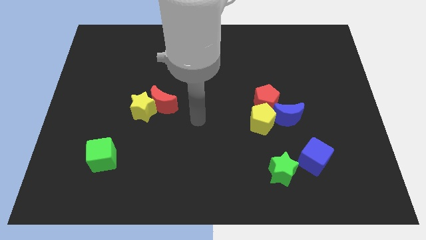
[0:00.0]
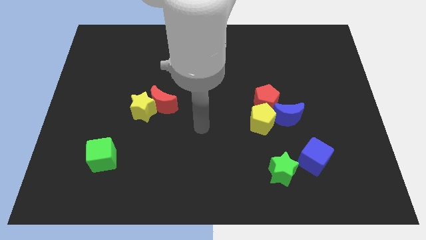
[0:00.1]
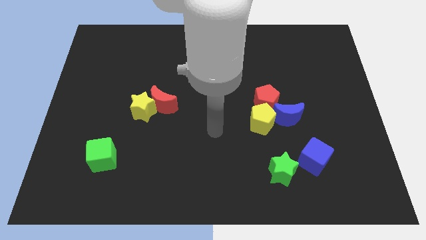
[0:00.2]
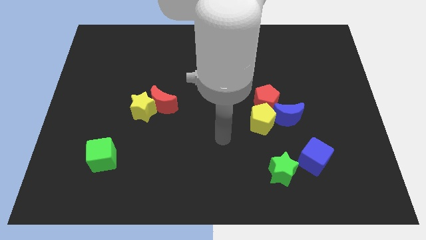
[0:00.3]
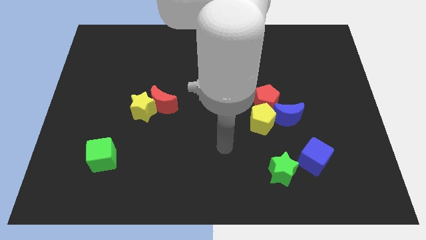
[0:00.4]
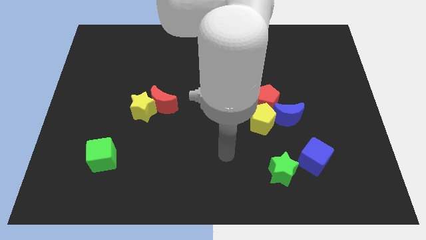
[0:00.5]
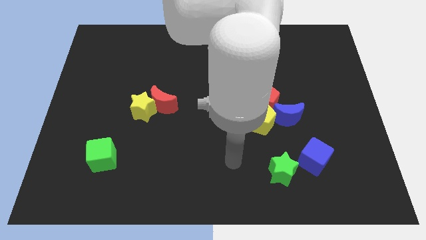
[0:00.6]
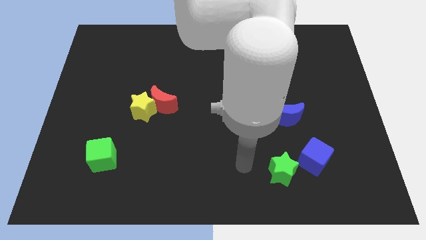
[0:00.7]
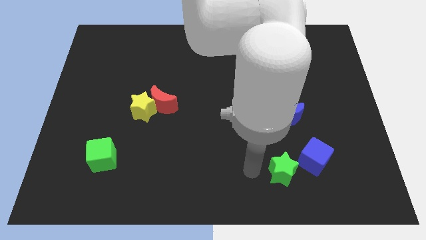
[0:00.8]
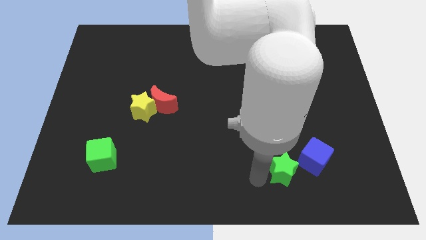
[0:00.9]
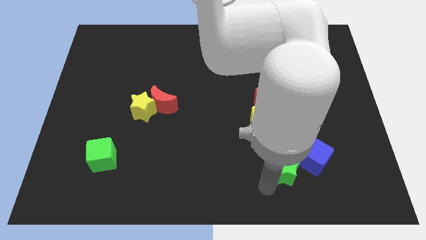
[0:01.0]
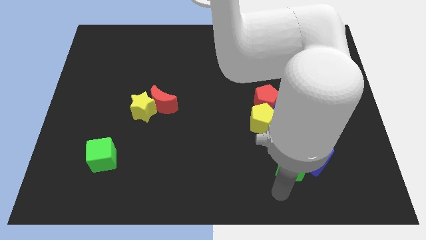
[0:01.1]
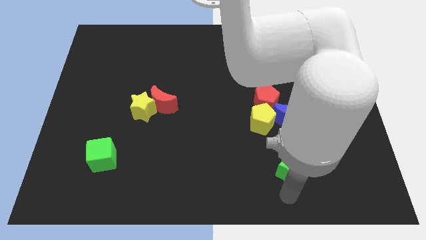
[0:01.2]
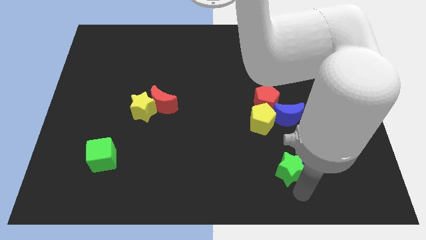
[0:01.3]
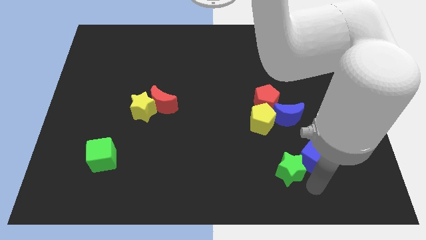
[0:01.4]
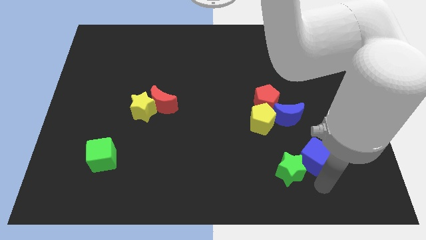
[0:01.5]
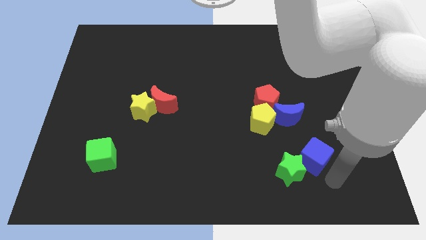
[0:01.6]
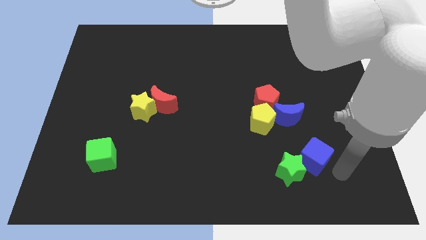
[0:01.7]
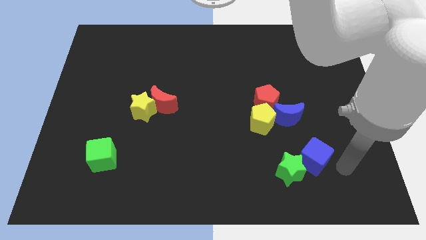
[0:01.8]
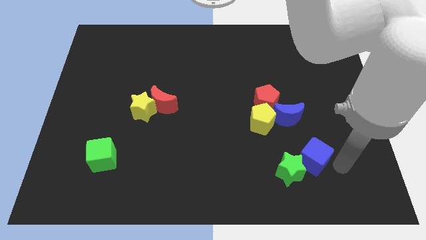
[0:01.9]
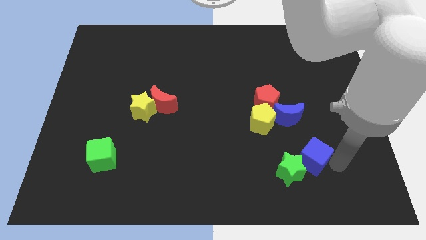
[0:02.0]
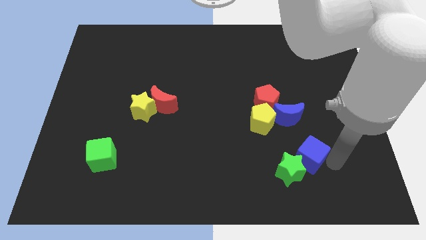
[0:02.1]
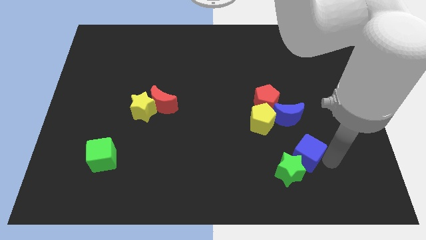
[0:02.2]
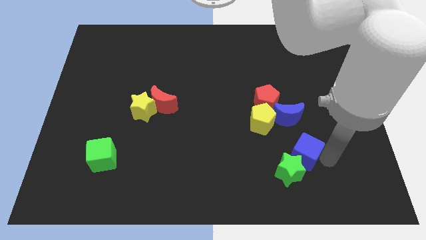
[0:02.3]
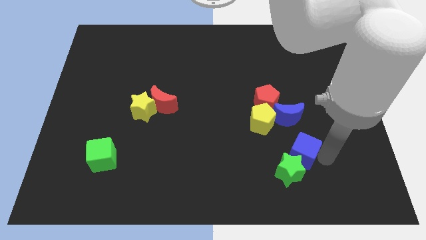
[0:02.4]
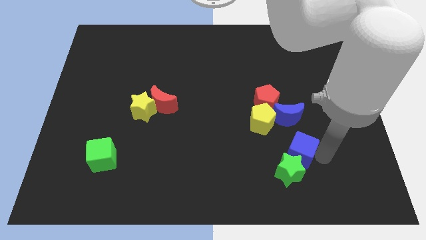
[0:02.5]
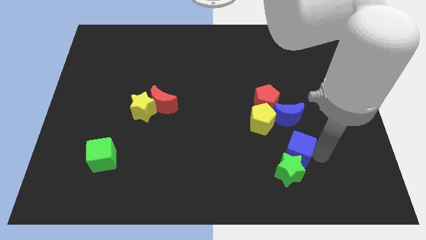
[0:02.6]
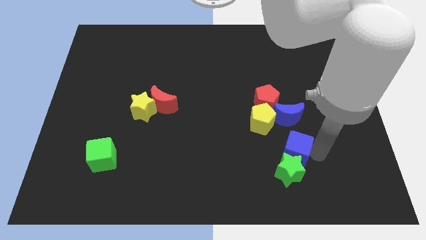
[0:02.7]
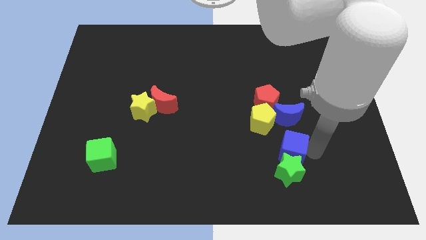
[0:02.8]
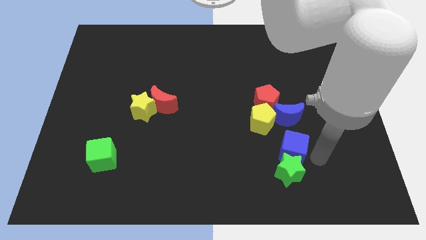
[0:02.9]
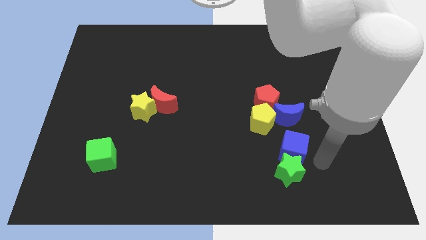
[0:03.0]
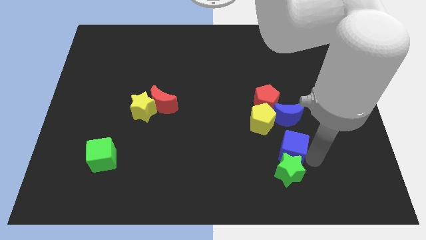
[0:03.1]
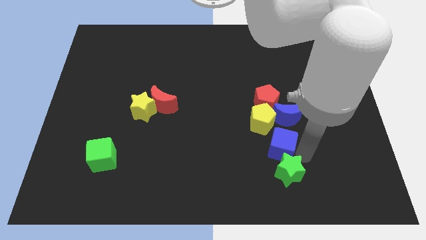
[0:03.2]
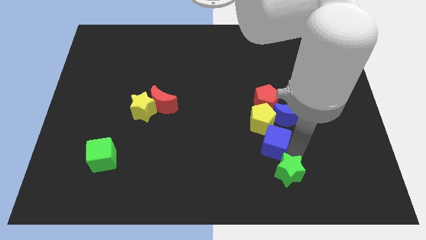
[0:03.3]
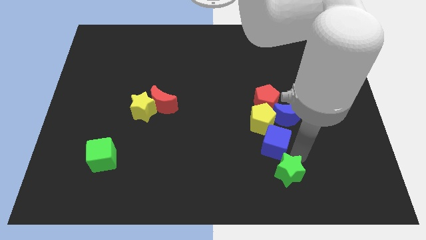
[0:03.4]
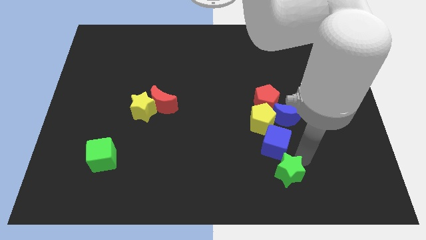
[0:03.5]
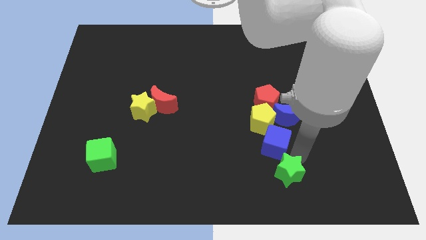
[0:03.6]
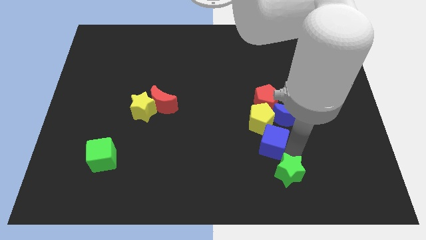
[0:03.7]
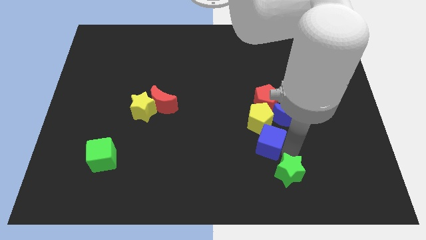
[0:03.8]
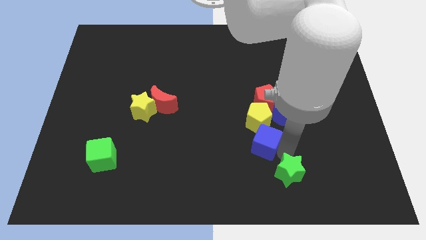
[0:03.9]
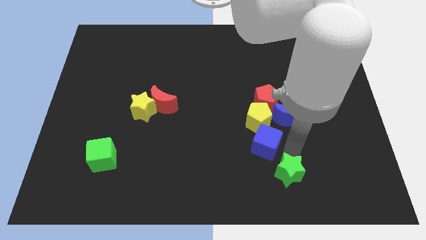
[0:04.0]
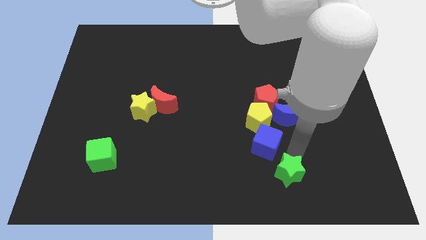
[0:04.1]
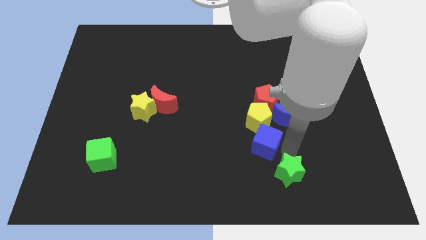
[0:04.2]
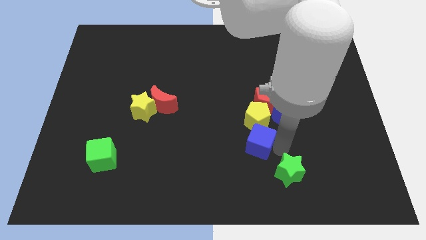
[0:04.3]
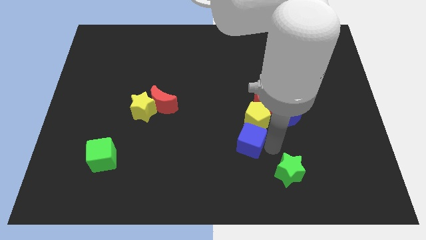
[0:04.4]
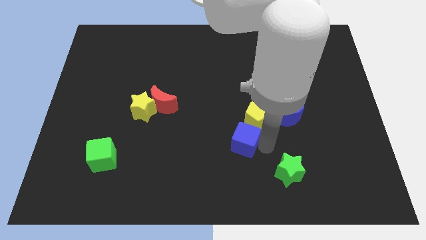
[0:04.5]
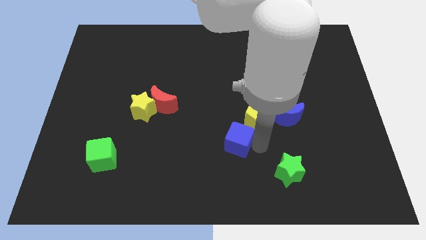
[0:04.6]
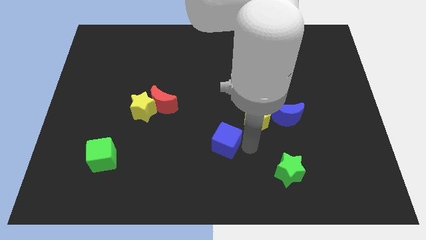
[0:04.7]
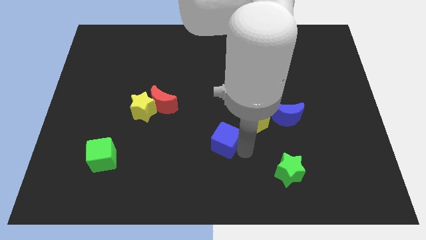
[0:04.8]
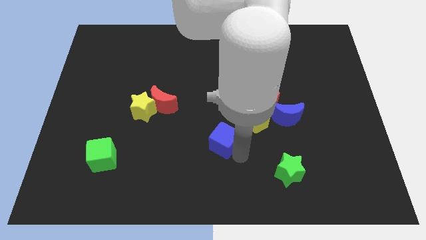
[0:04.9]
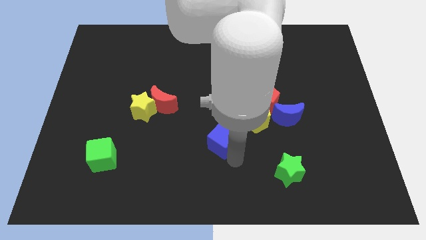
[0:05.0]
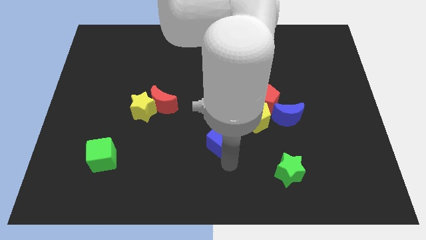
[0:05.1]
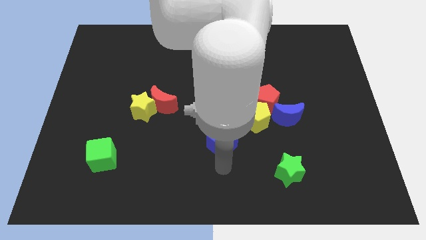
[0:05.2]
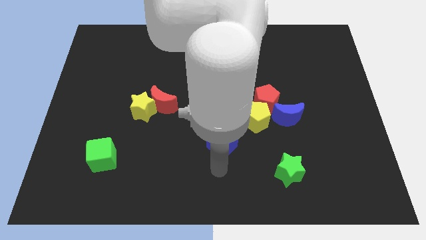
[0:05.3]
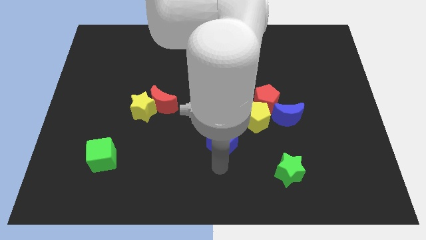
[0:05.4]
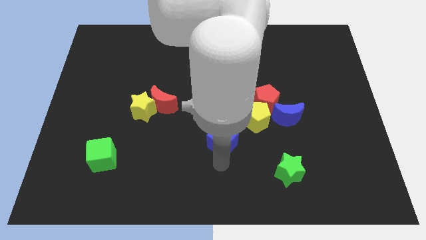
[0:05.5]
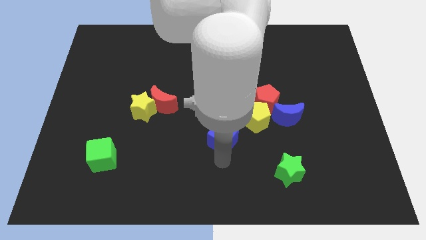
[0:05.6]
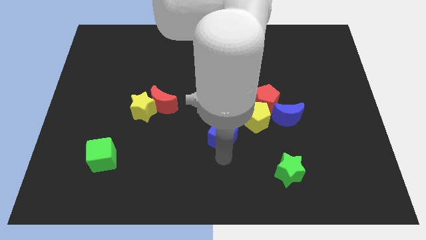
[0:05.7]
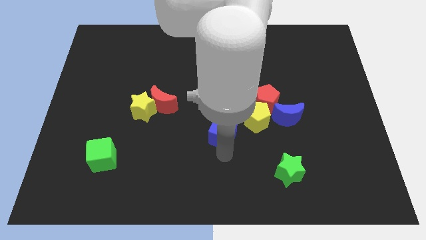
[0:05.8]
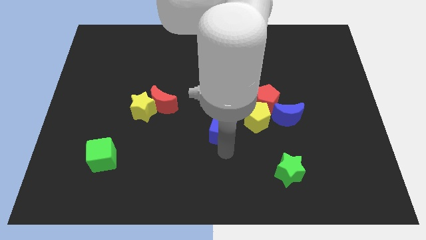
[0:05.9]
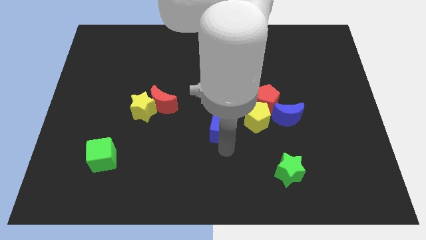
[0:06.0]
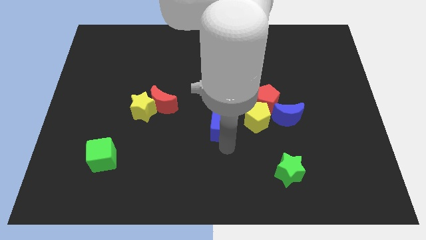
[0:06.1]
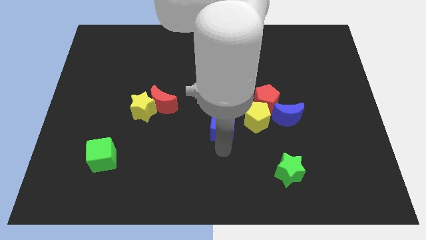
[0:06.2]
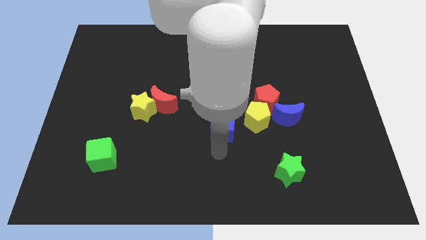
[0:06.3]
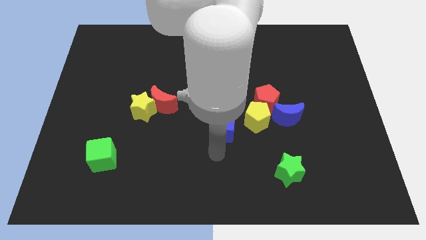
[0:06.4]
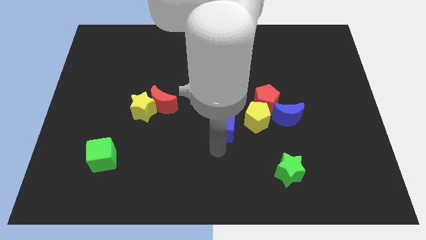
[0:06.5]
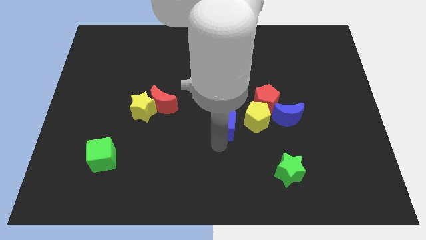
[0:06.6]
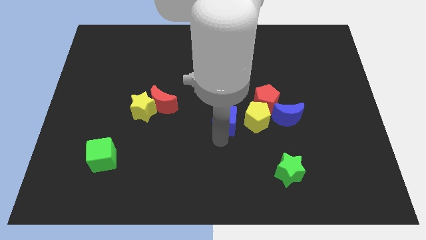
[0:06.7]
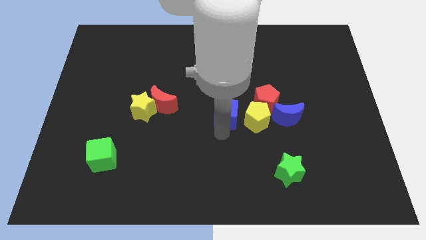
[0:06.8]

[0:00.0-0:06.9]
push the blue cube diagonally up and to the left of the yellow pentagon

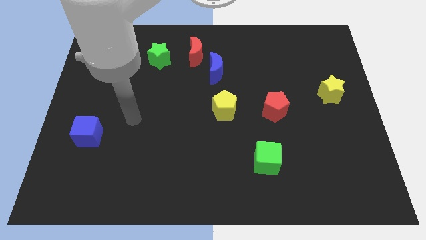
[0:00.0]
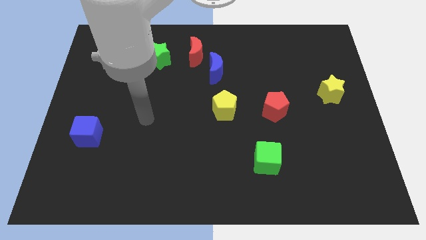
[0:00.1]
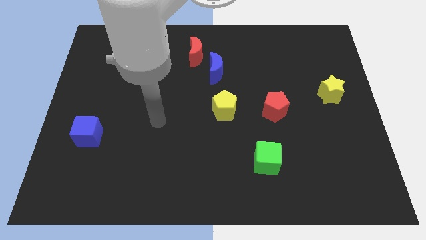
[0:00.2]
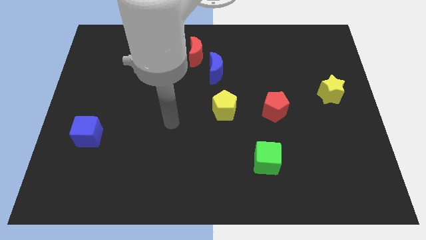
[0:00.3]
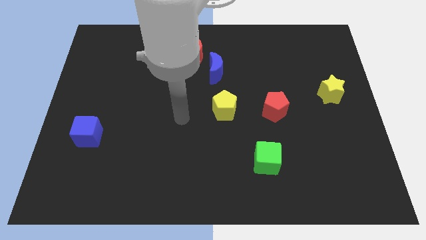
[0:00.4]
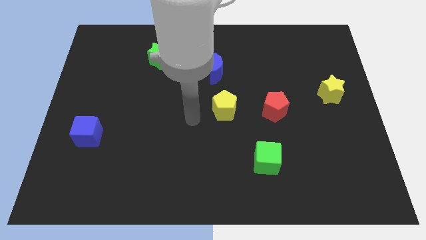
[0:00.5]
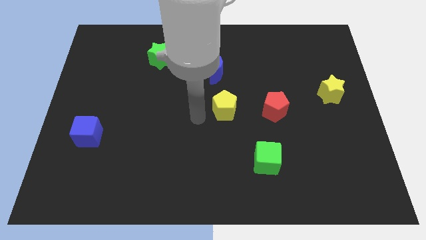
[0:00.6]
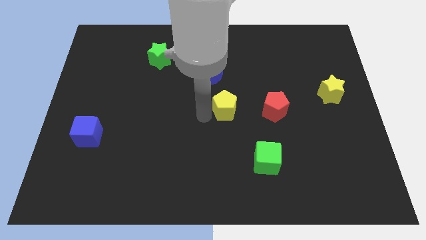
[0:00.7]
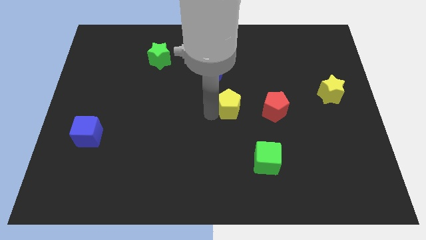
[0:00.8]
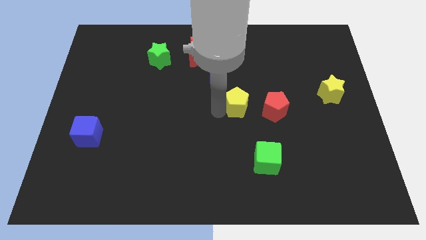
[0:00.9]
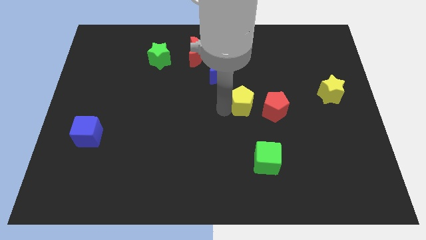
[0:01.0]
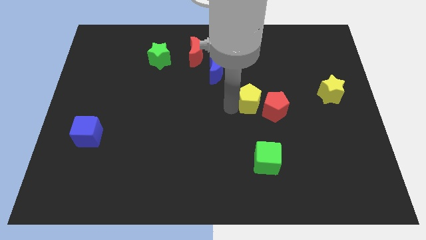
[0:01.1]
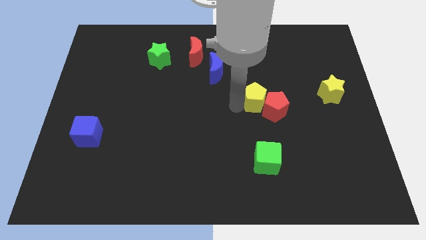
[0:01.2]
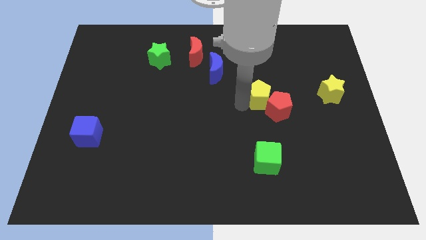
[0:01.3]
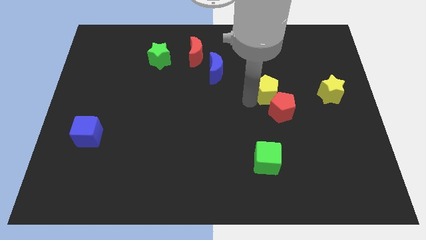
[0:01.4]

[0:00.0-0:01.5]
push the yellow pentagon left of the yellow star

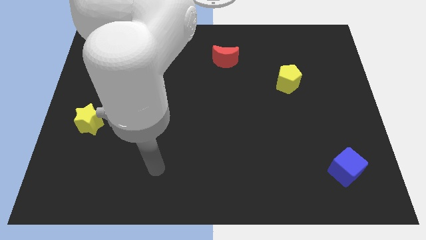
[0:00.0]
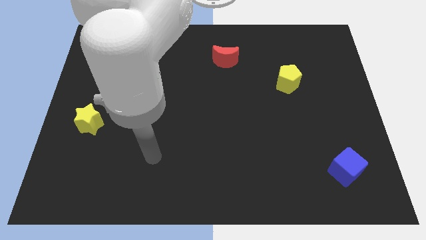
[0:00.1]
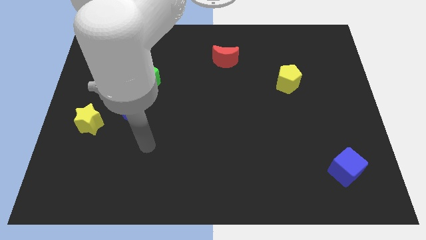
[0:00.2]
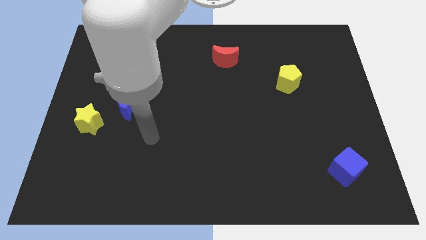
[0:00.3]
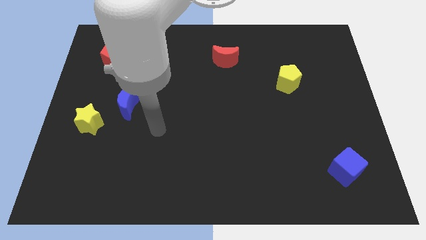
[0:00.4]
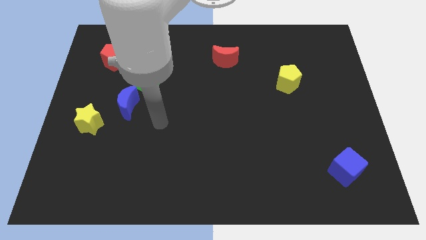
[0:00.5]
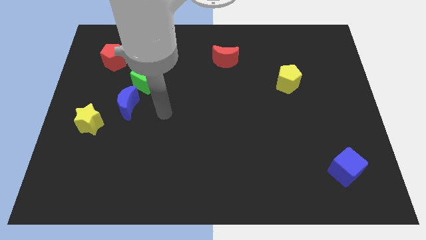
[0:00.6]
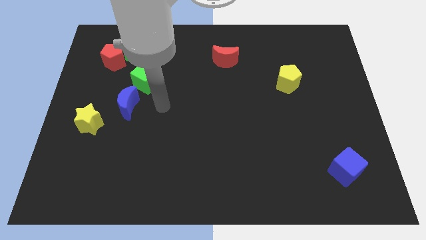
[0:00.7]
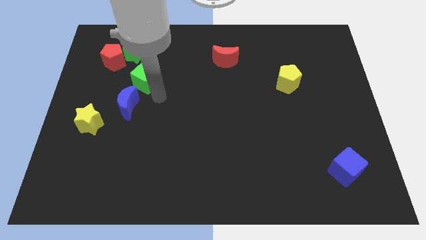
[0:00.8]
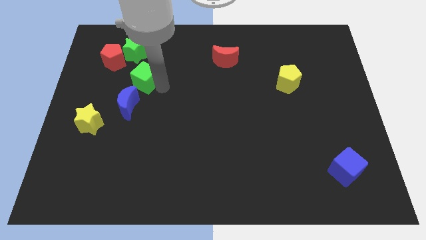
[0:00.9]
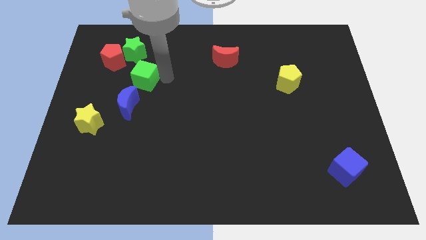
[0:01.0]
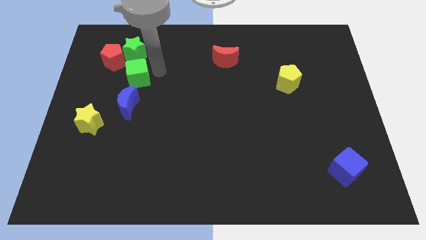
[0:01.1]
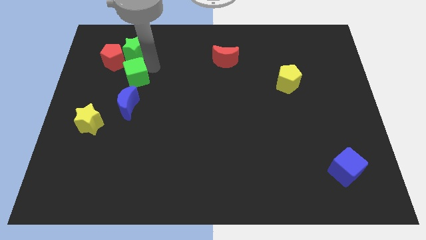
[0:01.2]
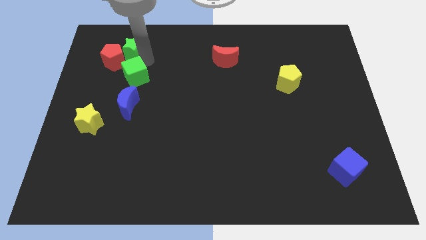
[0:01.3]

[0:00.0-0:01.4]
put the red pentagon left of the green cube
